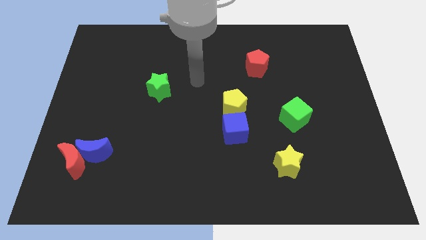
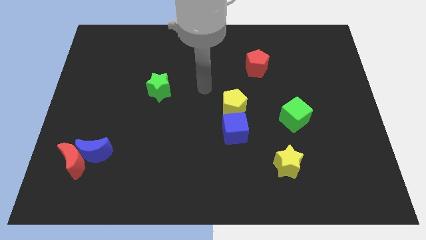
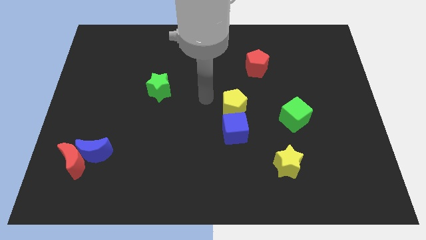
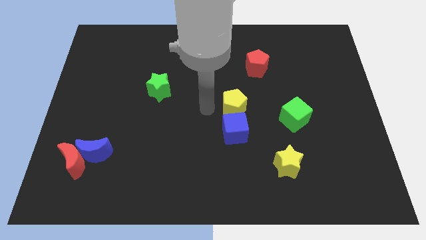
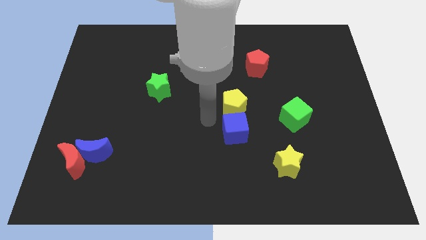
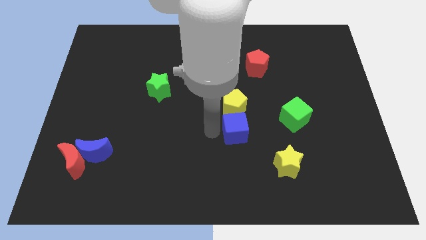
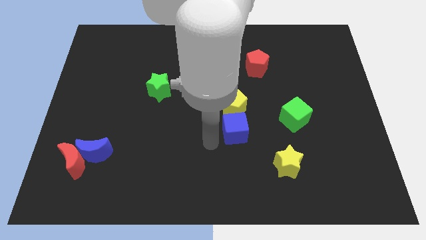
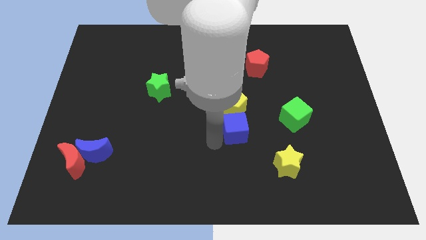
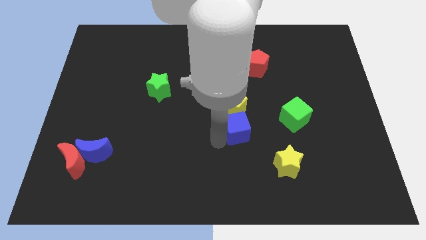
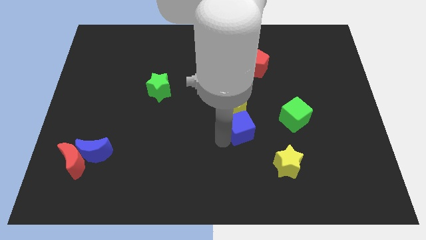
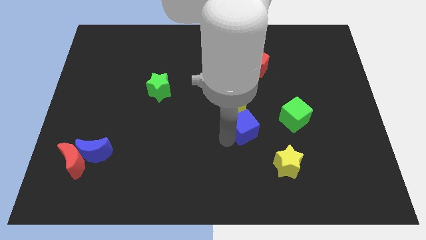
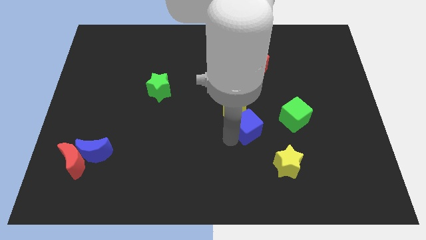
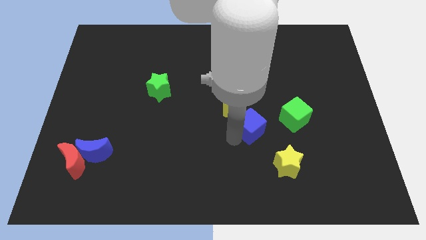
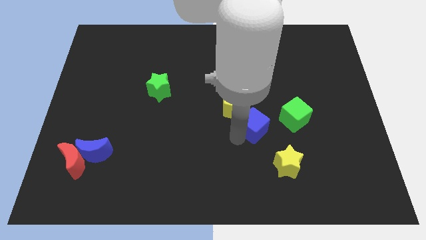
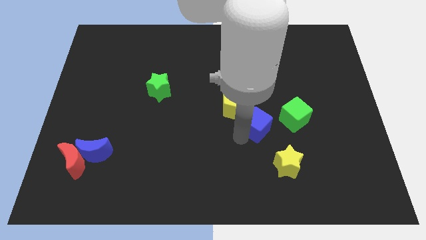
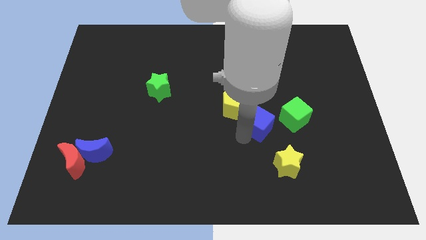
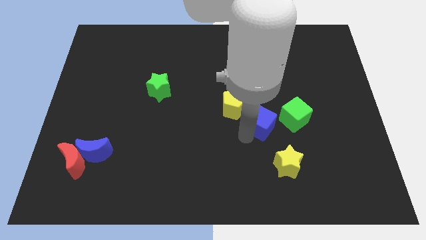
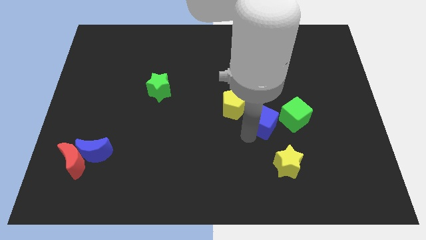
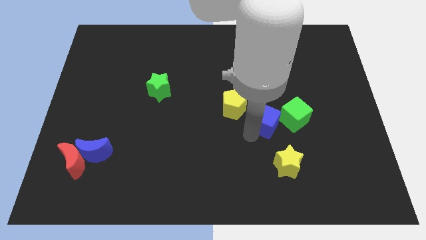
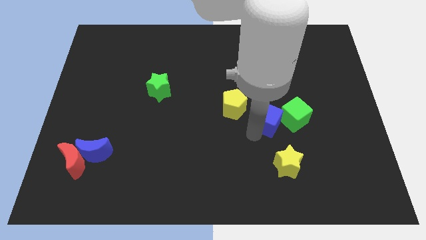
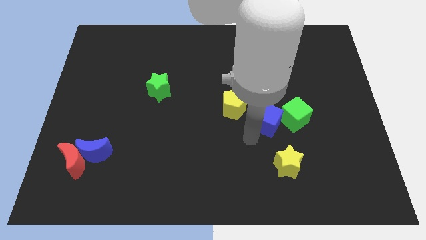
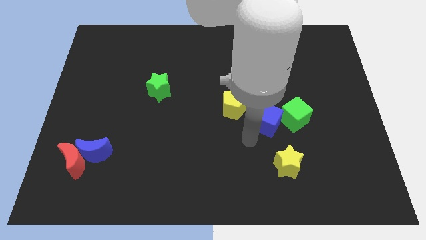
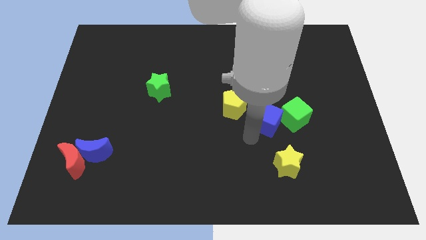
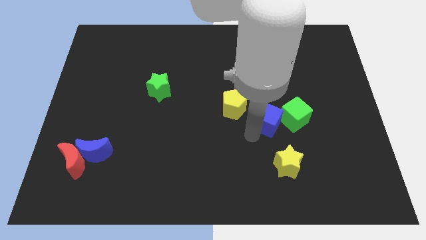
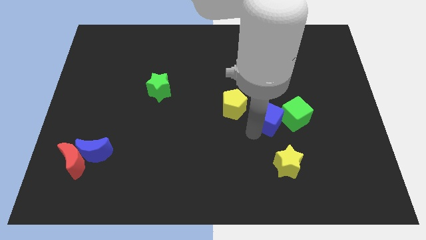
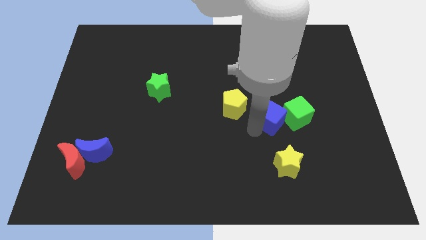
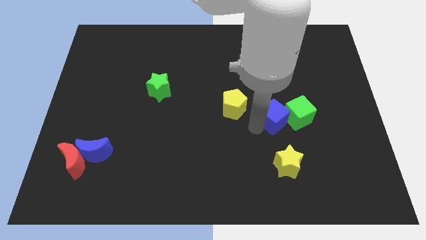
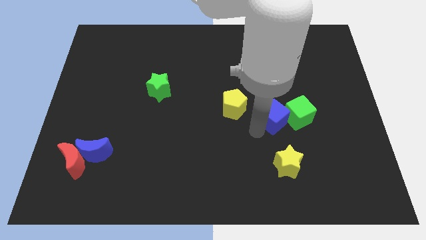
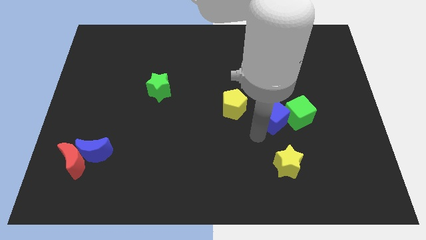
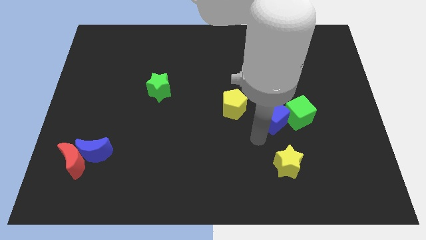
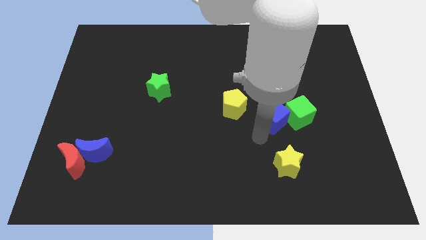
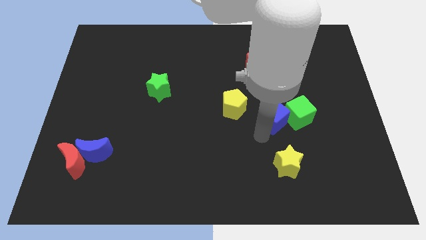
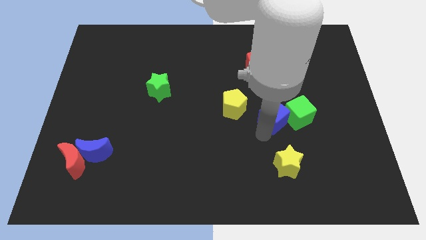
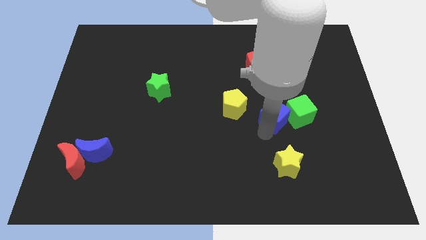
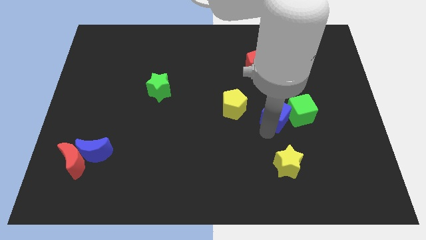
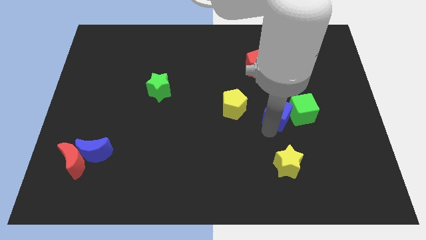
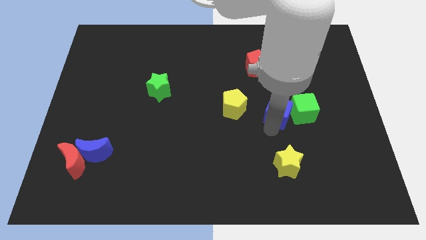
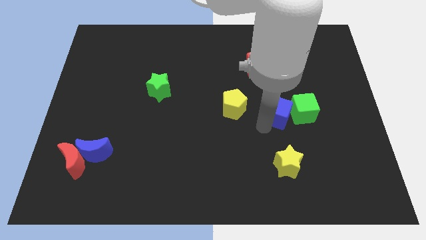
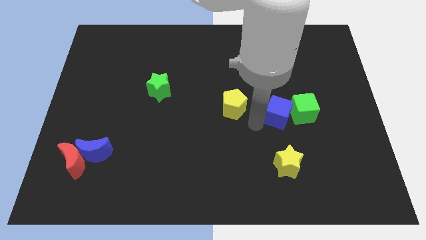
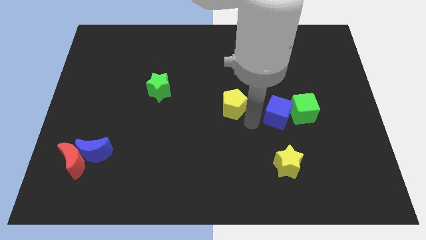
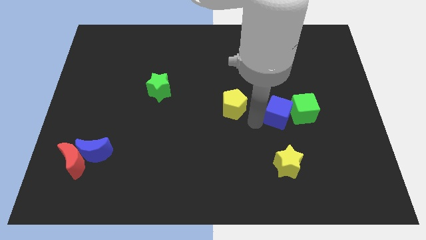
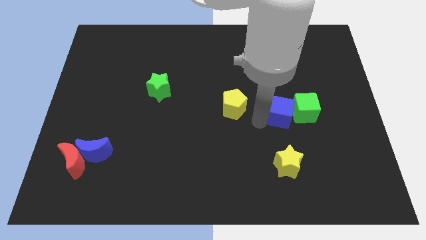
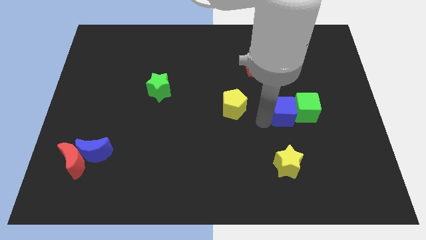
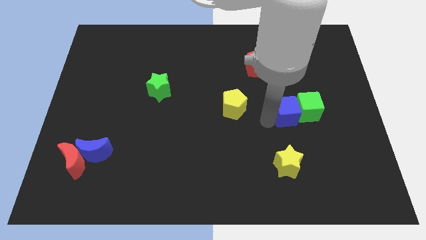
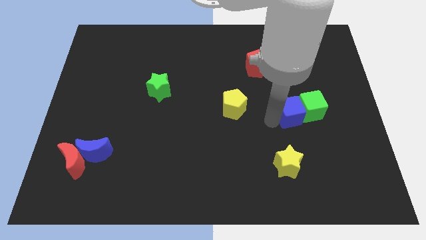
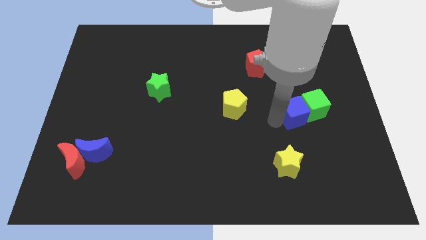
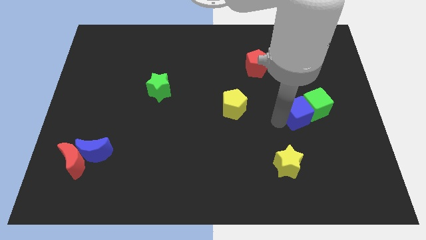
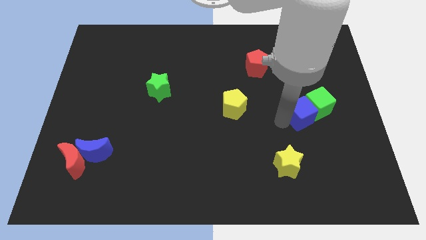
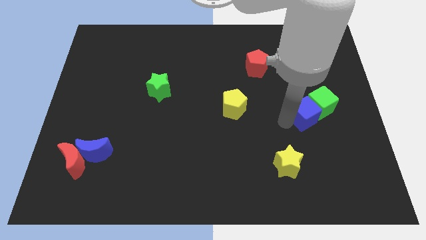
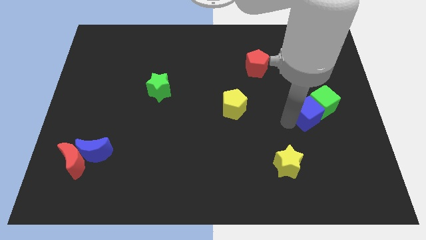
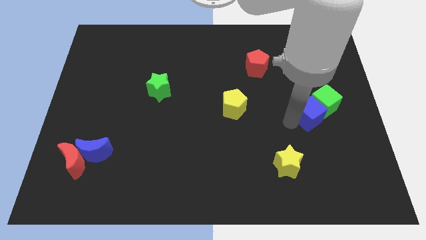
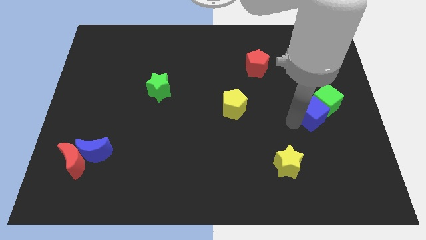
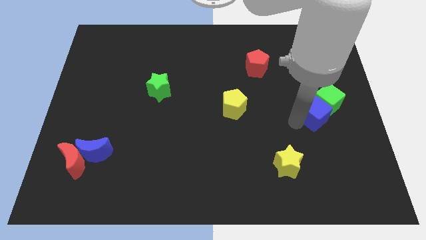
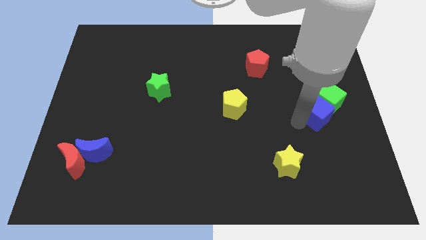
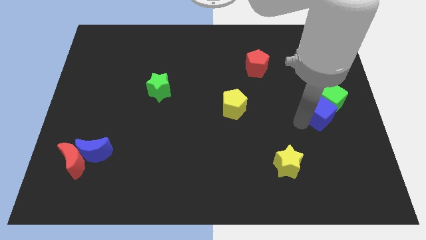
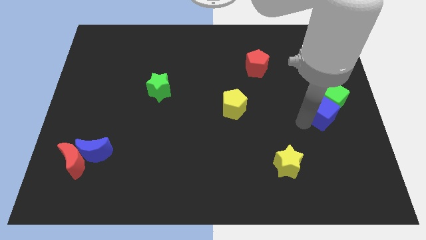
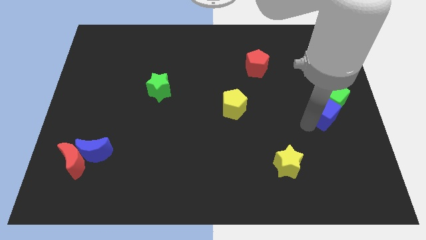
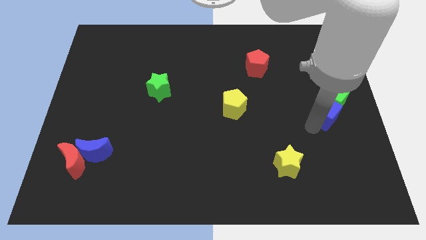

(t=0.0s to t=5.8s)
slide the blue cube to the right side
